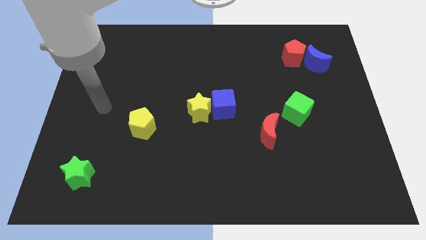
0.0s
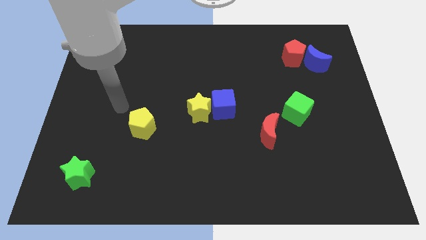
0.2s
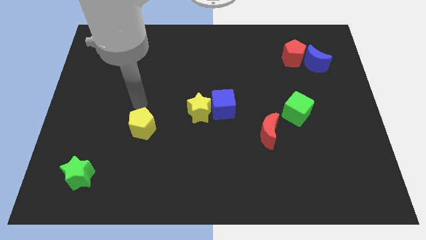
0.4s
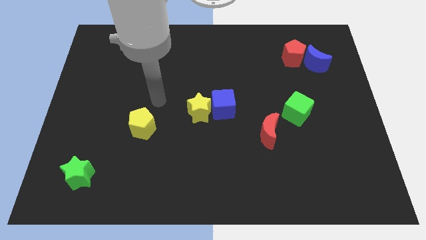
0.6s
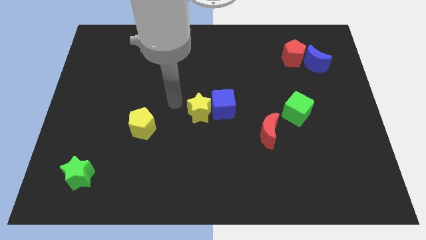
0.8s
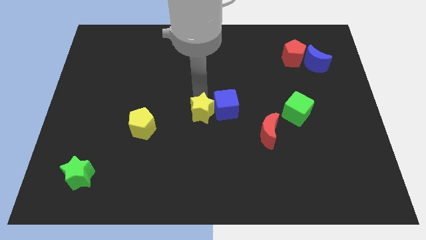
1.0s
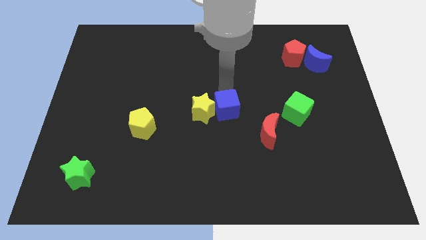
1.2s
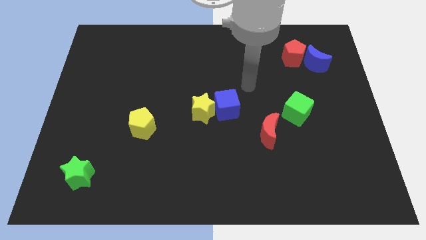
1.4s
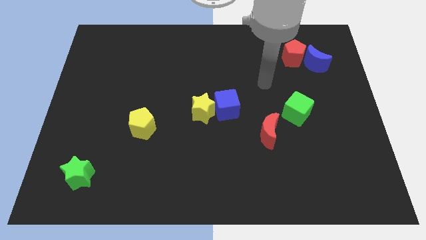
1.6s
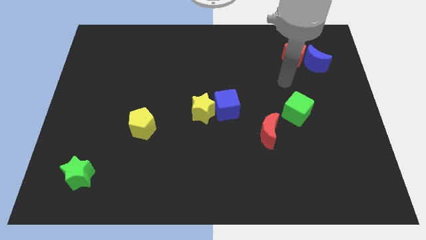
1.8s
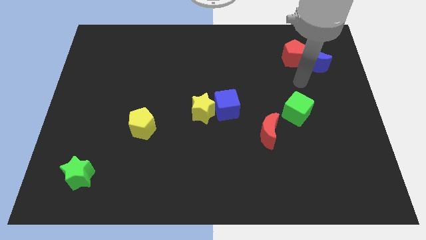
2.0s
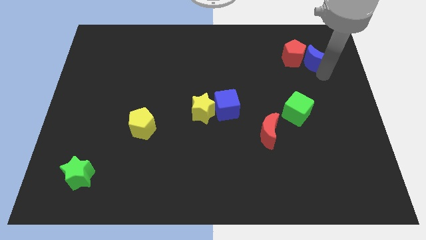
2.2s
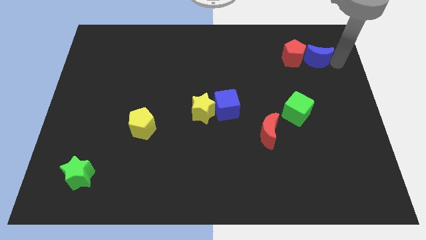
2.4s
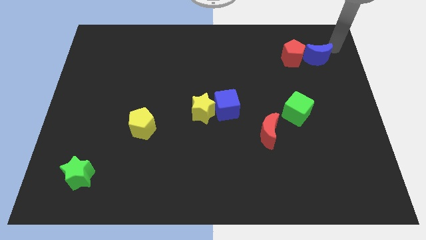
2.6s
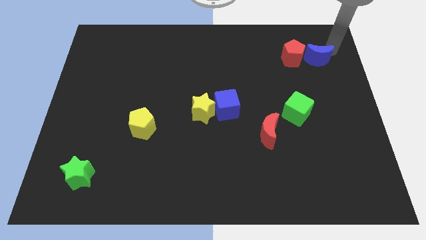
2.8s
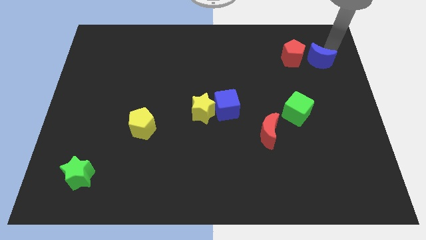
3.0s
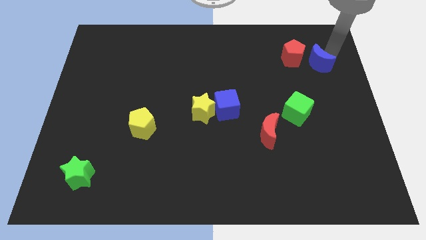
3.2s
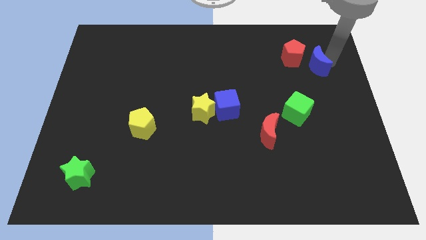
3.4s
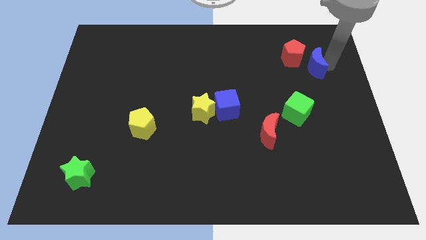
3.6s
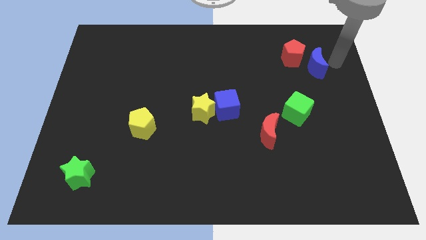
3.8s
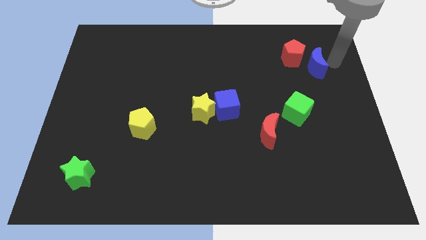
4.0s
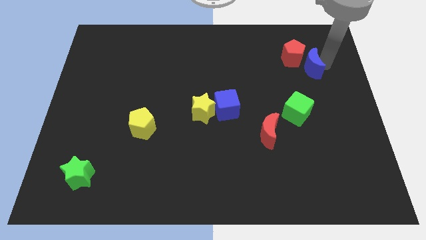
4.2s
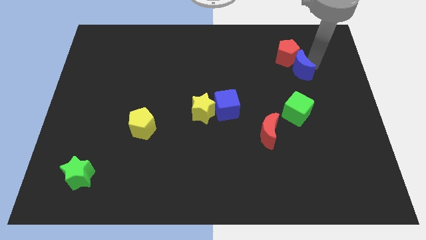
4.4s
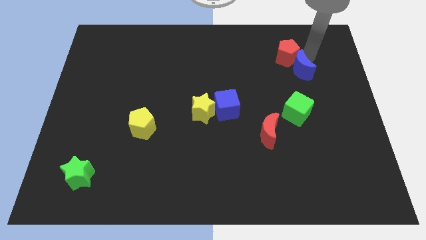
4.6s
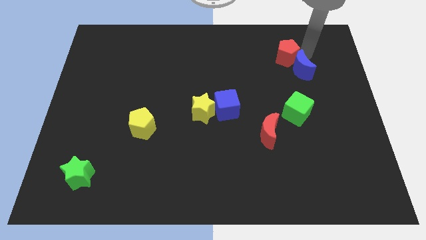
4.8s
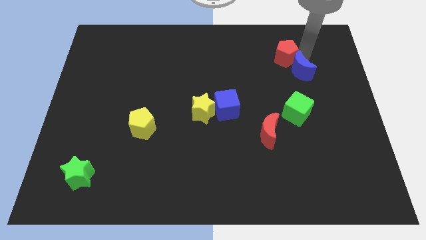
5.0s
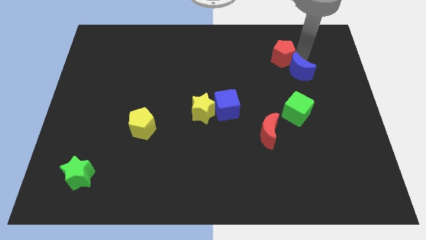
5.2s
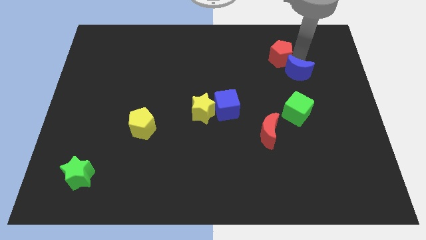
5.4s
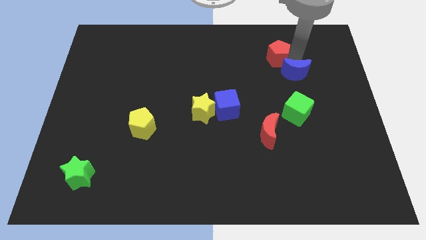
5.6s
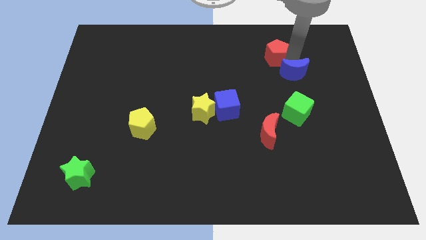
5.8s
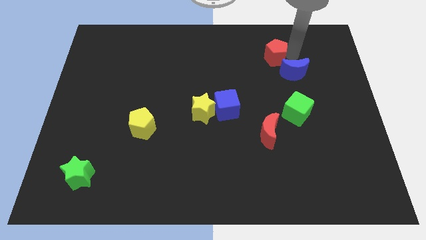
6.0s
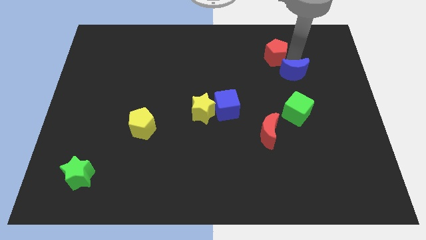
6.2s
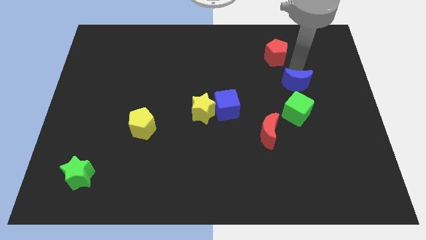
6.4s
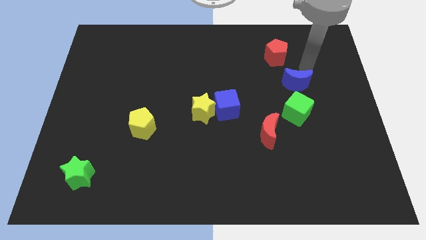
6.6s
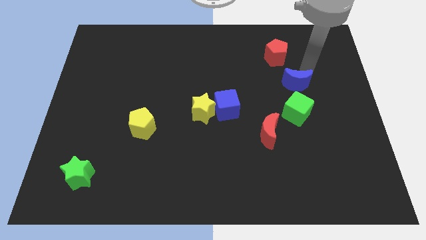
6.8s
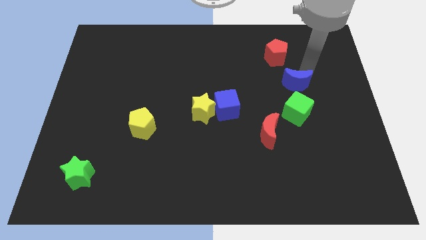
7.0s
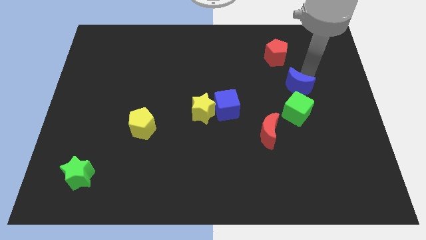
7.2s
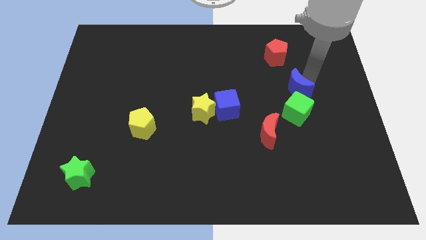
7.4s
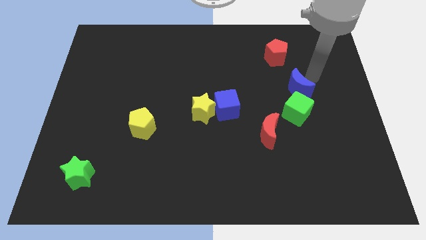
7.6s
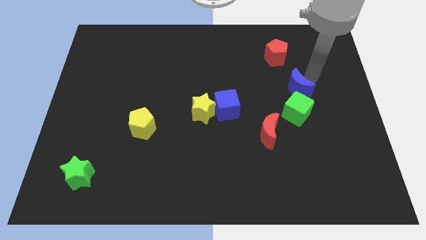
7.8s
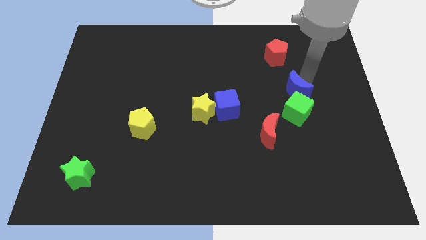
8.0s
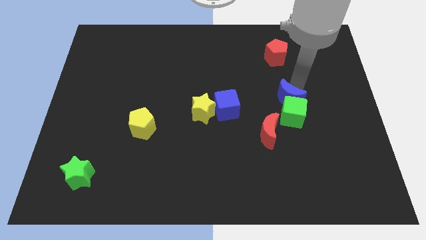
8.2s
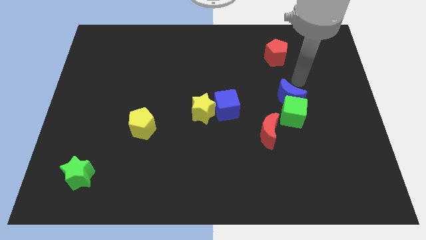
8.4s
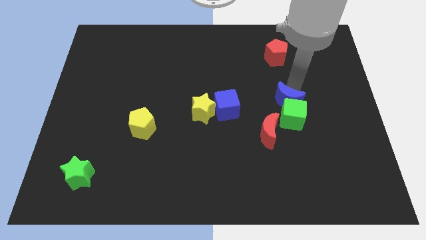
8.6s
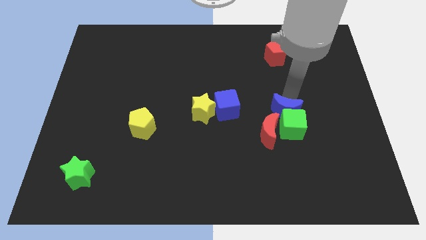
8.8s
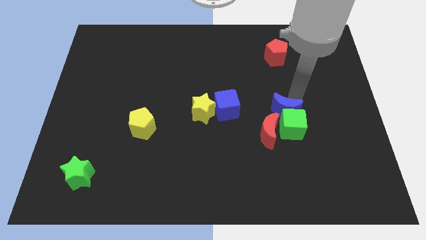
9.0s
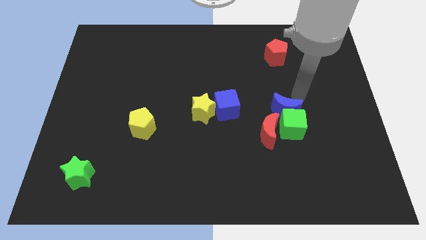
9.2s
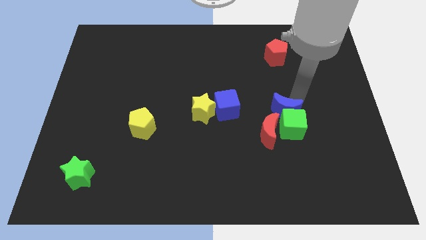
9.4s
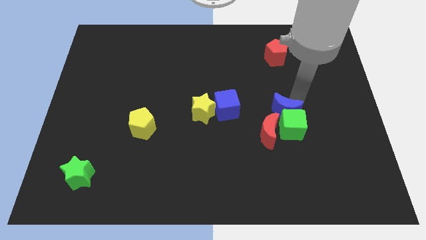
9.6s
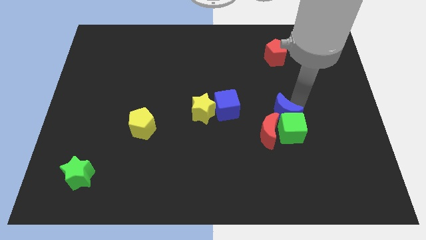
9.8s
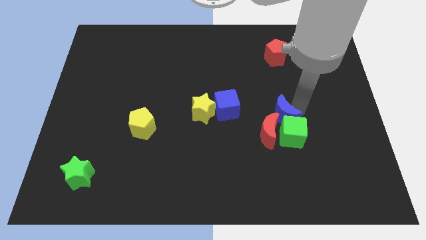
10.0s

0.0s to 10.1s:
slide the blue moon to the red moon

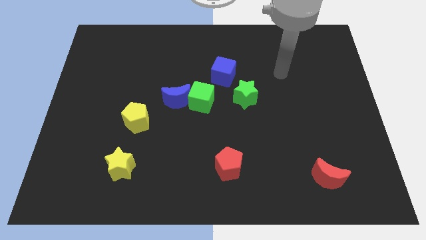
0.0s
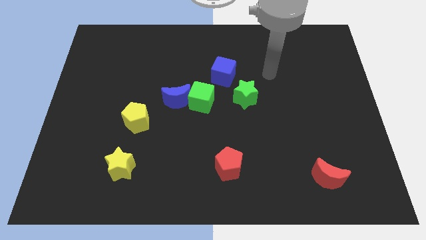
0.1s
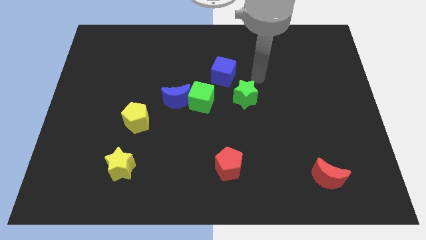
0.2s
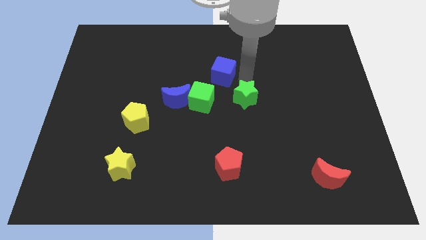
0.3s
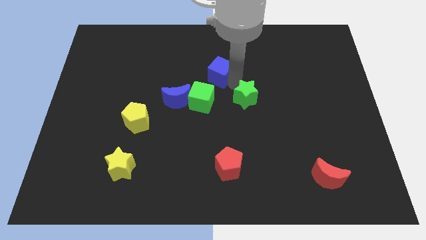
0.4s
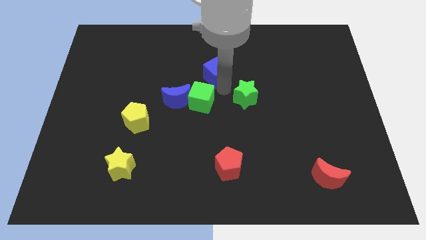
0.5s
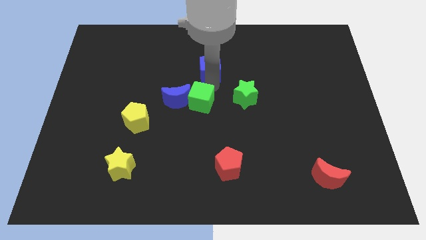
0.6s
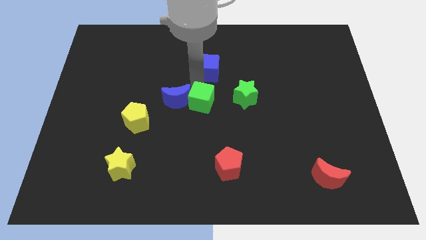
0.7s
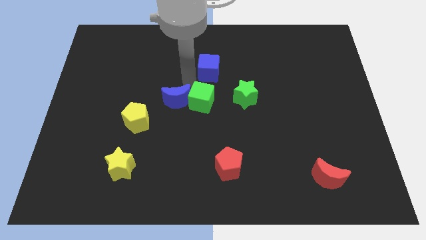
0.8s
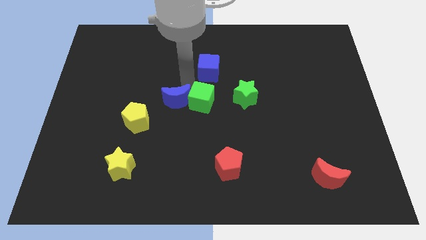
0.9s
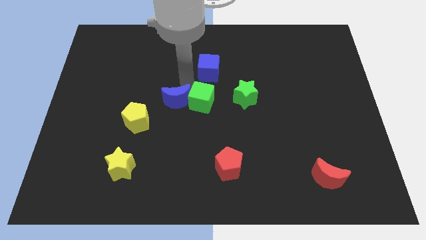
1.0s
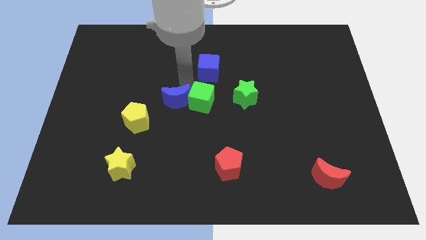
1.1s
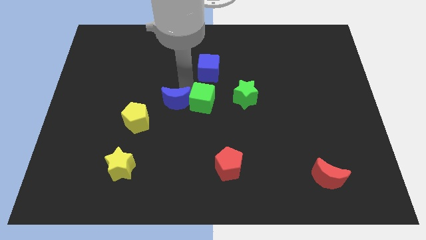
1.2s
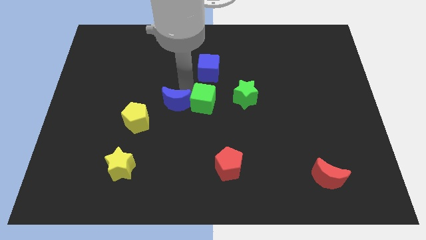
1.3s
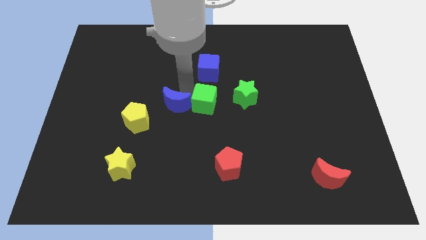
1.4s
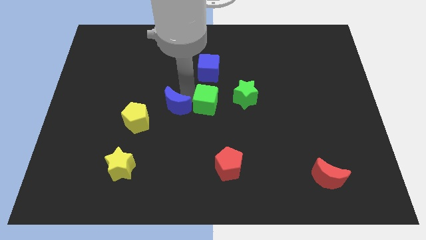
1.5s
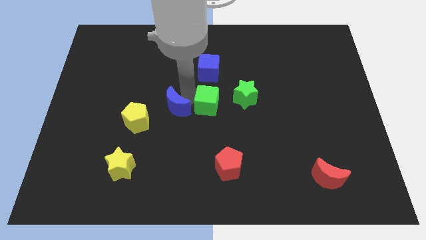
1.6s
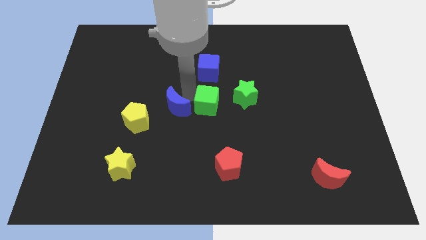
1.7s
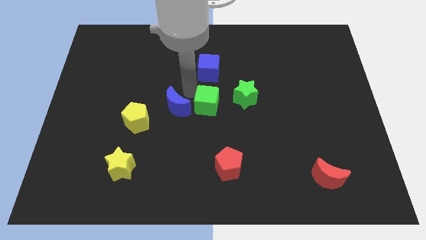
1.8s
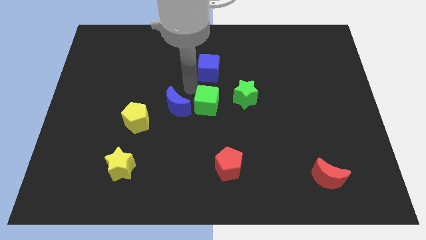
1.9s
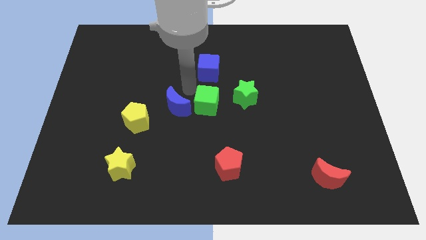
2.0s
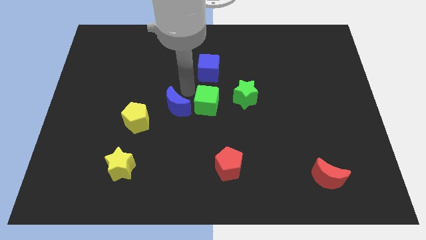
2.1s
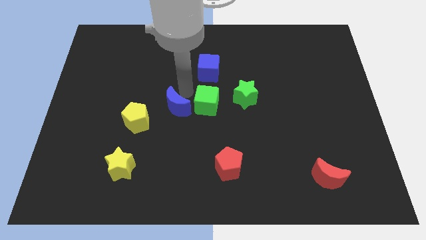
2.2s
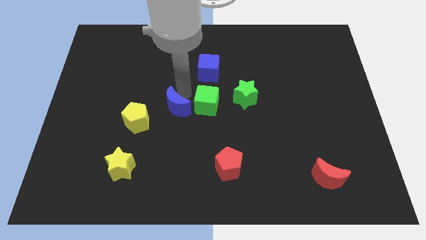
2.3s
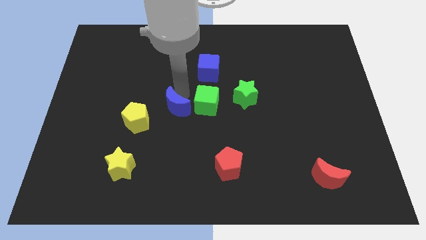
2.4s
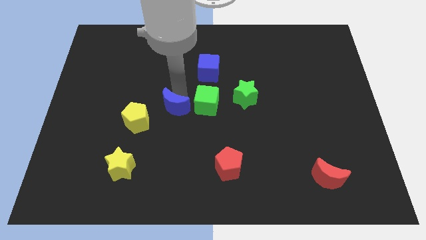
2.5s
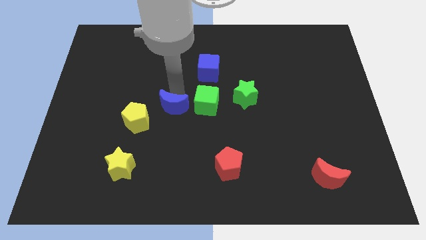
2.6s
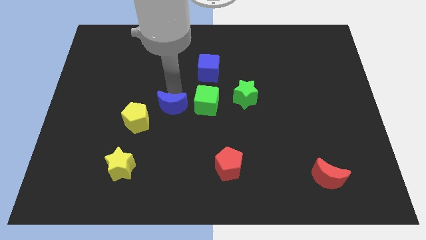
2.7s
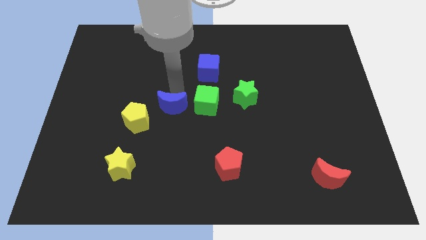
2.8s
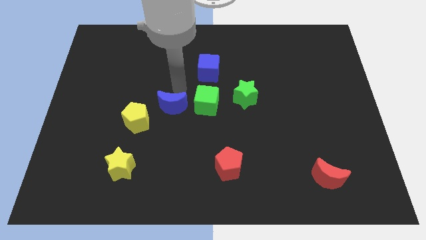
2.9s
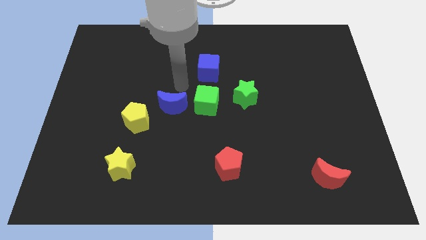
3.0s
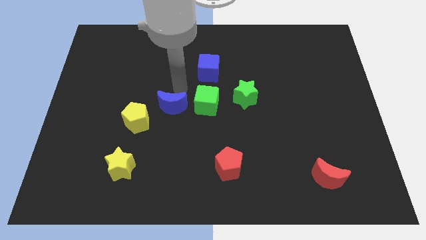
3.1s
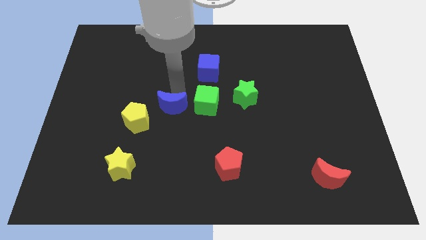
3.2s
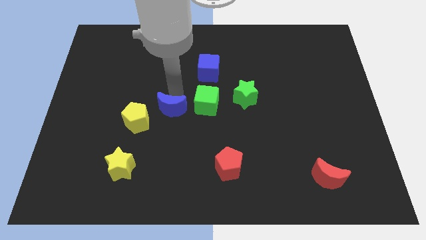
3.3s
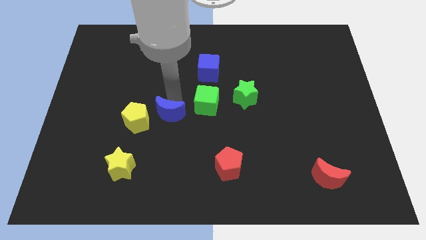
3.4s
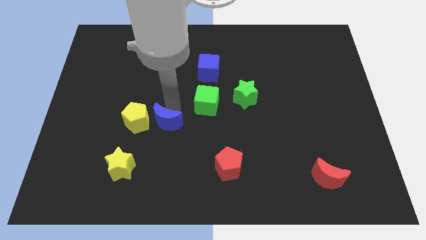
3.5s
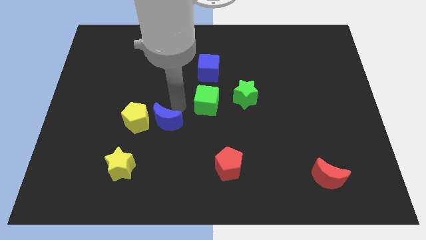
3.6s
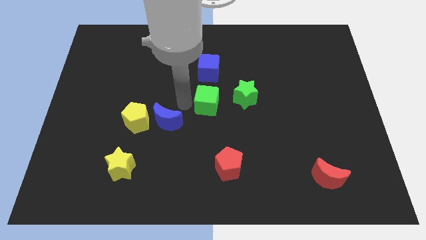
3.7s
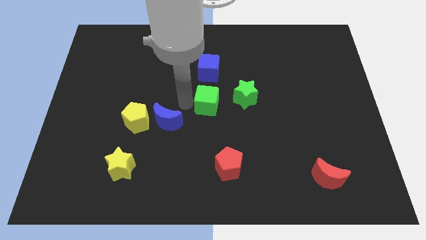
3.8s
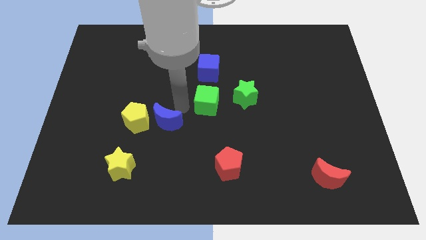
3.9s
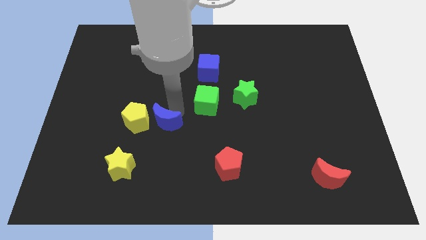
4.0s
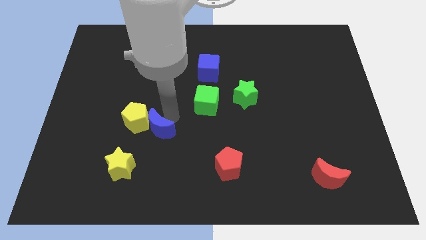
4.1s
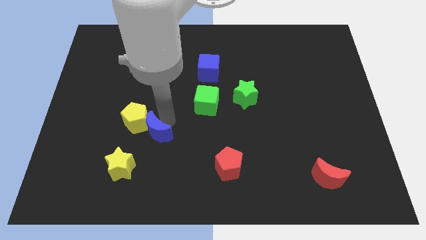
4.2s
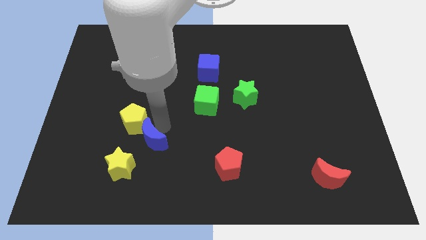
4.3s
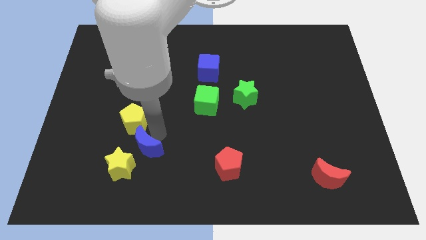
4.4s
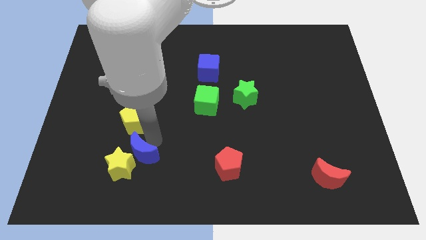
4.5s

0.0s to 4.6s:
push the blue moon to the yellow star
